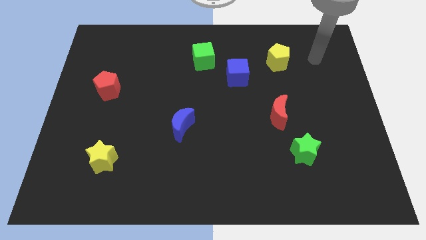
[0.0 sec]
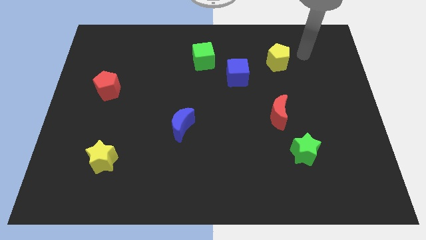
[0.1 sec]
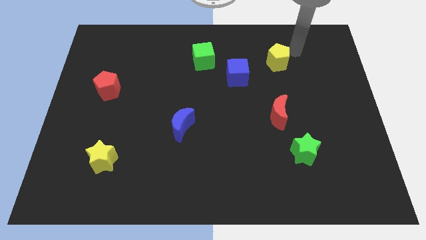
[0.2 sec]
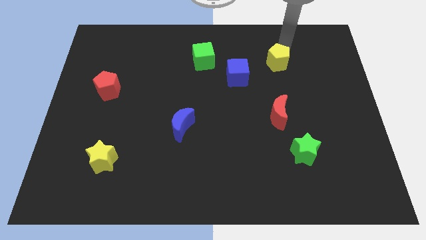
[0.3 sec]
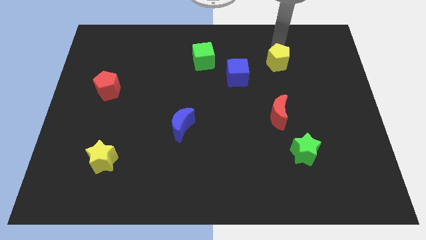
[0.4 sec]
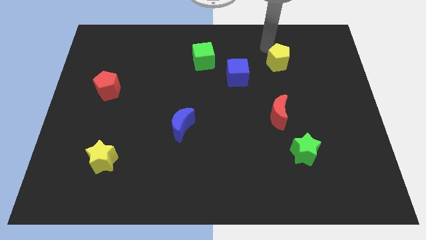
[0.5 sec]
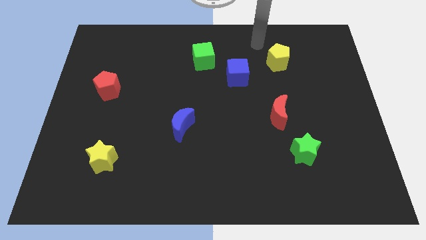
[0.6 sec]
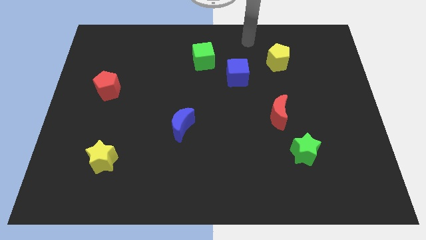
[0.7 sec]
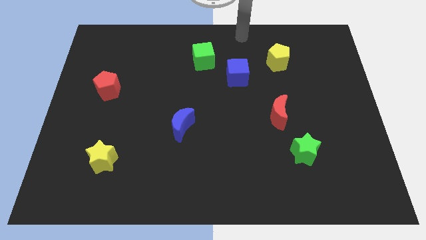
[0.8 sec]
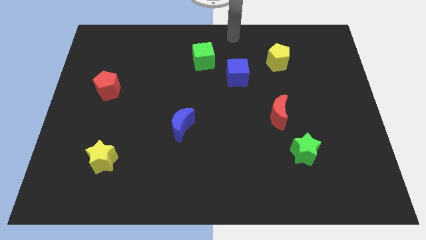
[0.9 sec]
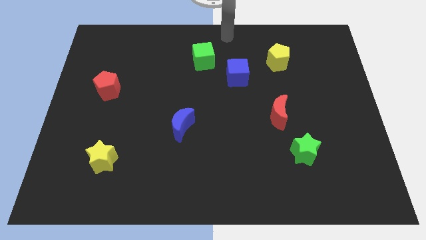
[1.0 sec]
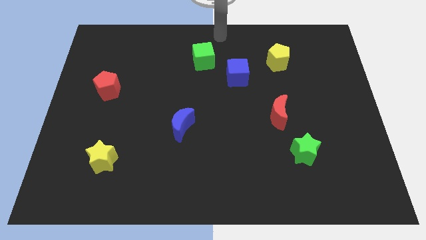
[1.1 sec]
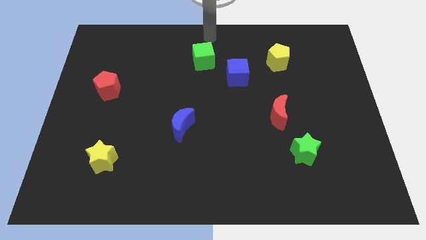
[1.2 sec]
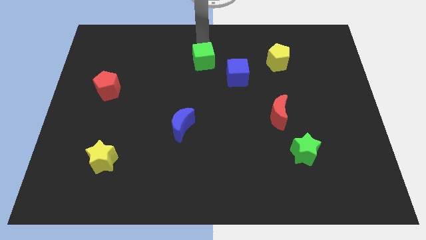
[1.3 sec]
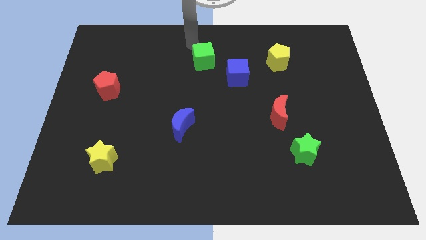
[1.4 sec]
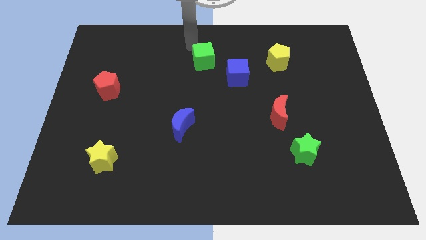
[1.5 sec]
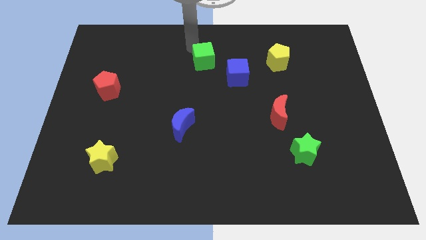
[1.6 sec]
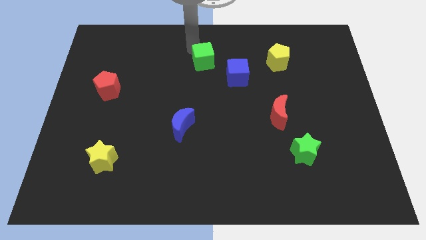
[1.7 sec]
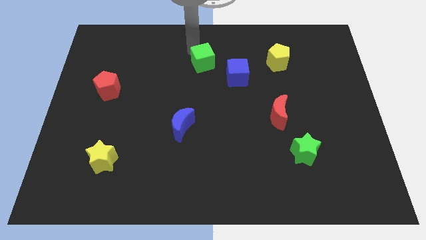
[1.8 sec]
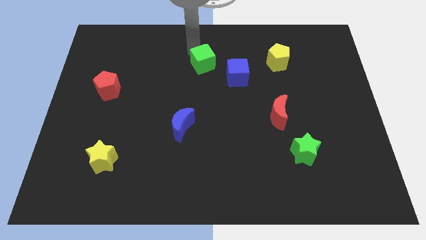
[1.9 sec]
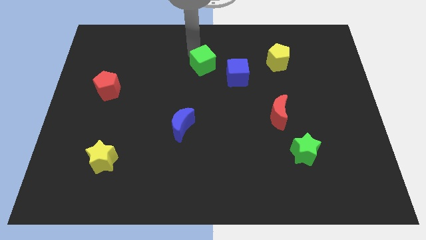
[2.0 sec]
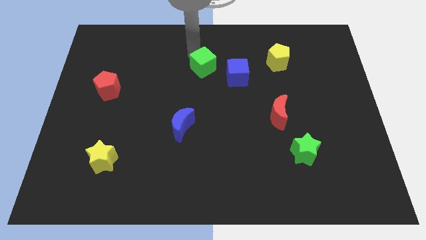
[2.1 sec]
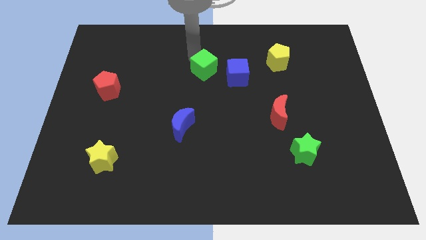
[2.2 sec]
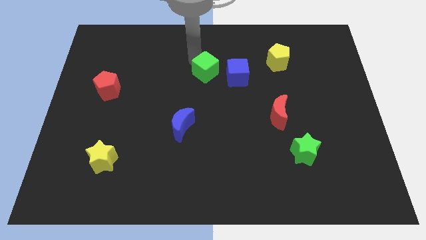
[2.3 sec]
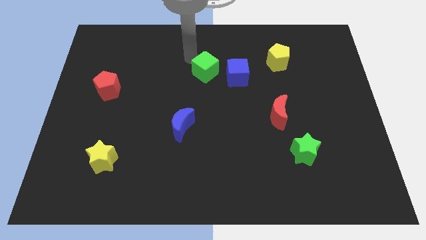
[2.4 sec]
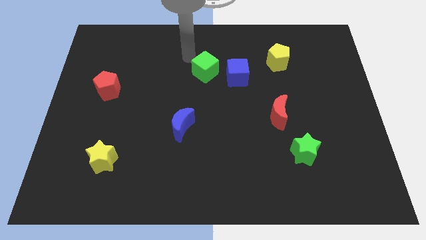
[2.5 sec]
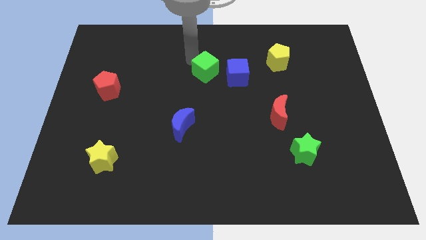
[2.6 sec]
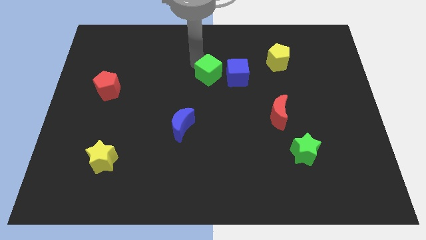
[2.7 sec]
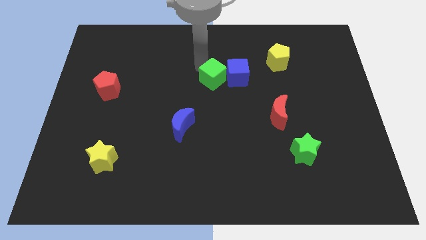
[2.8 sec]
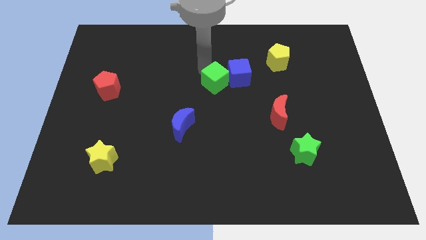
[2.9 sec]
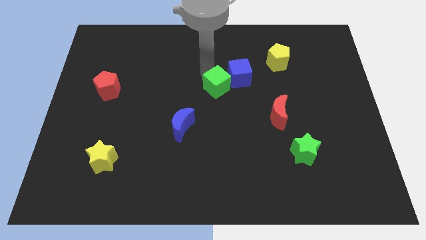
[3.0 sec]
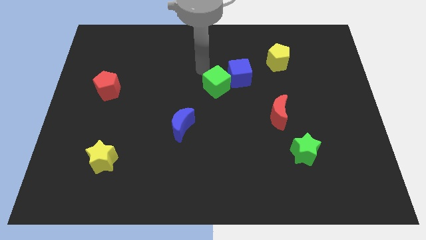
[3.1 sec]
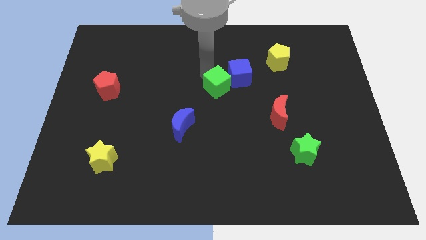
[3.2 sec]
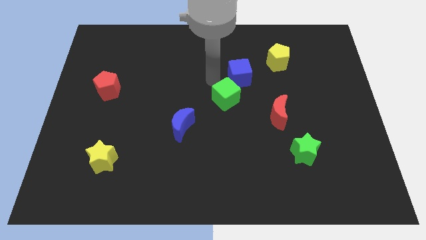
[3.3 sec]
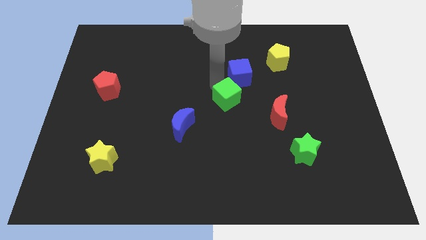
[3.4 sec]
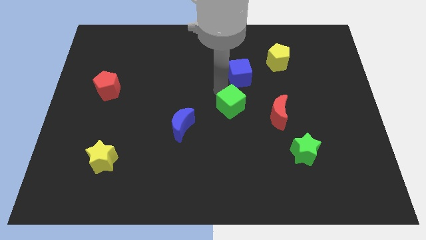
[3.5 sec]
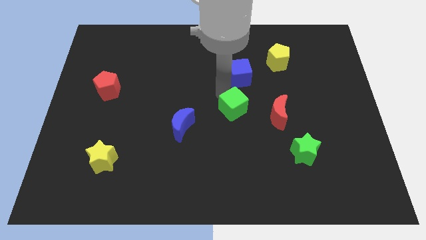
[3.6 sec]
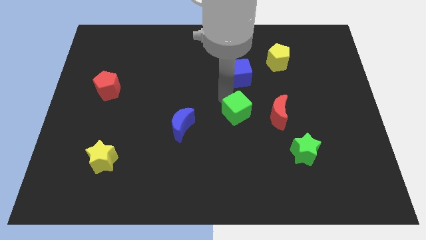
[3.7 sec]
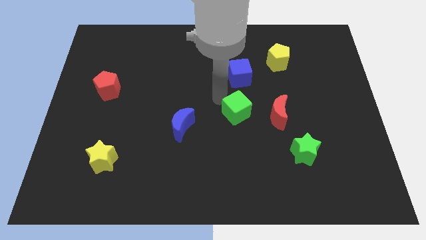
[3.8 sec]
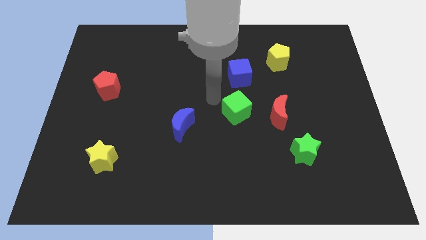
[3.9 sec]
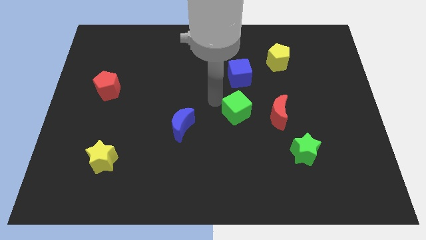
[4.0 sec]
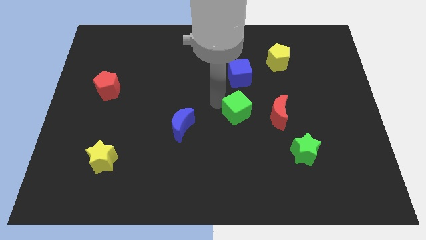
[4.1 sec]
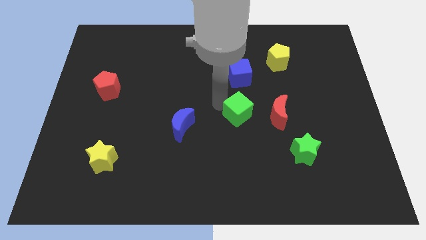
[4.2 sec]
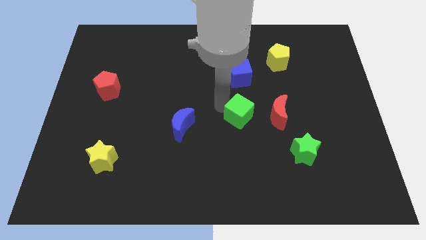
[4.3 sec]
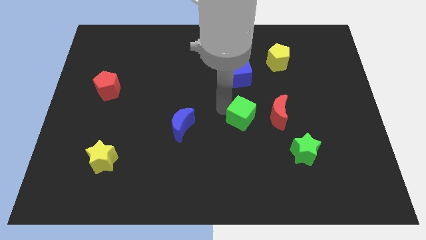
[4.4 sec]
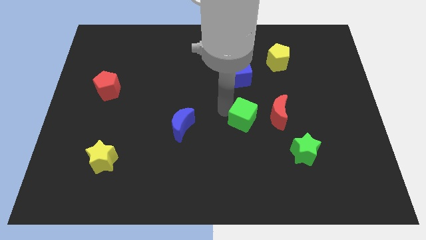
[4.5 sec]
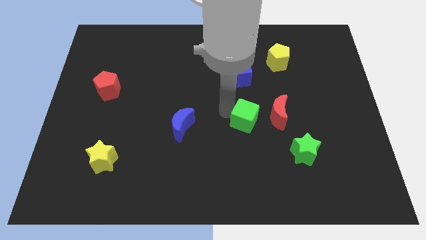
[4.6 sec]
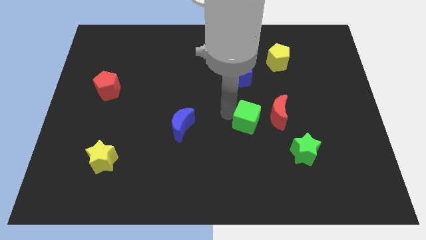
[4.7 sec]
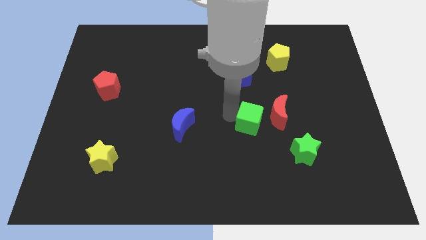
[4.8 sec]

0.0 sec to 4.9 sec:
move the green cube down and then right

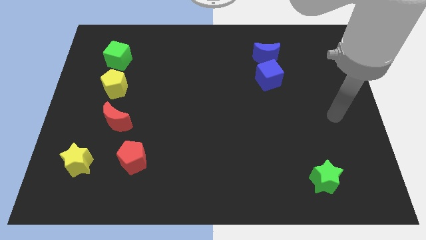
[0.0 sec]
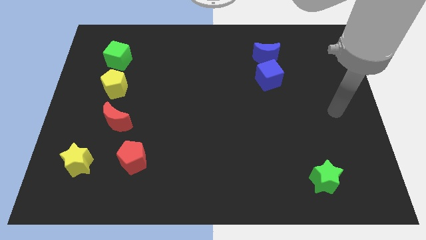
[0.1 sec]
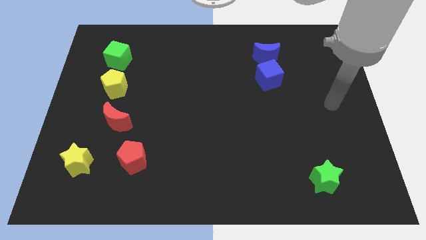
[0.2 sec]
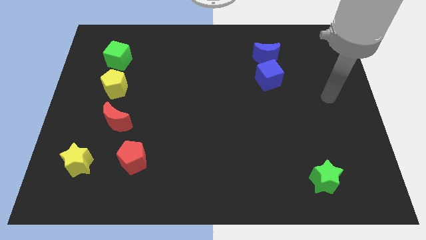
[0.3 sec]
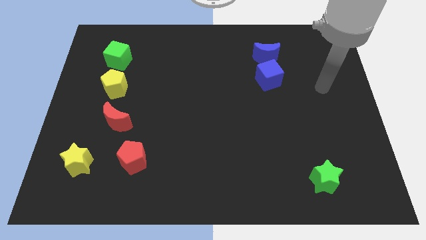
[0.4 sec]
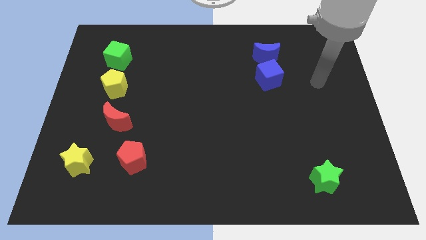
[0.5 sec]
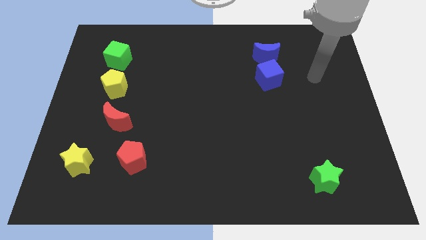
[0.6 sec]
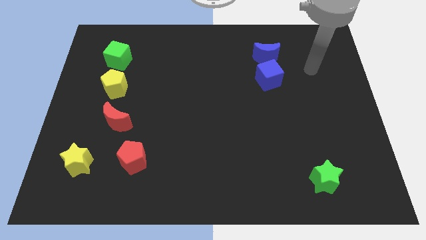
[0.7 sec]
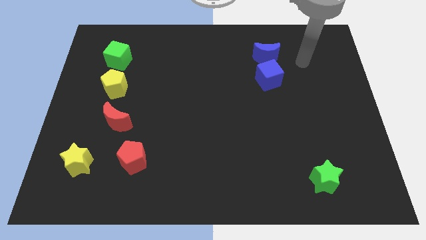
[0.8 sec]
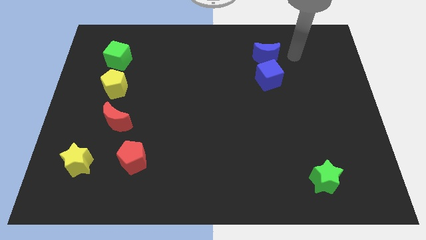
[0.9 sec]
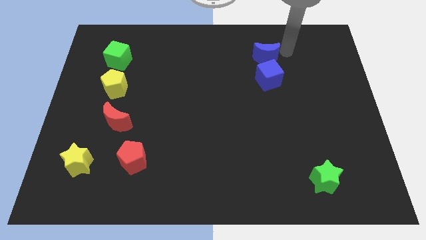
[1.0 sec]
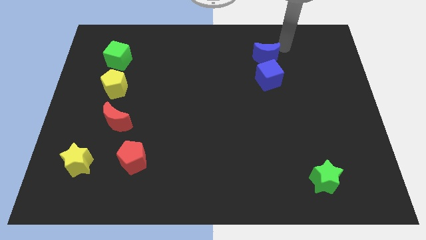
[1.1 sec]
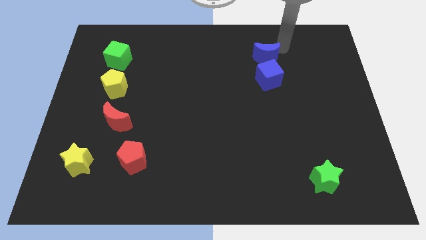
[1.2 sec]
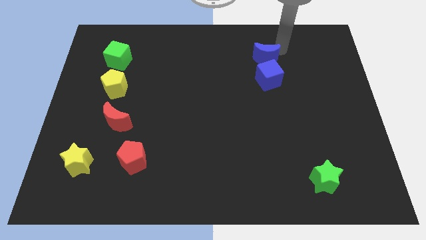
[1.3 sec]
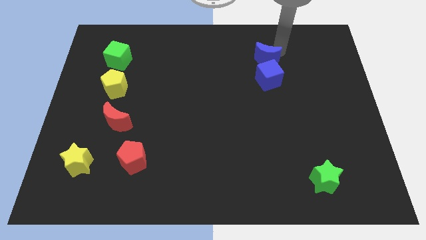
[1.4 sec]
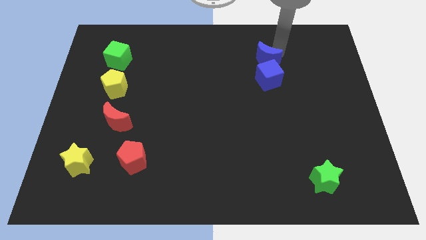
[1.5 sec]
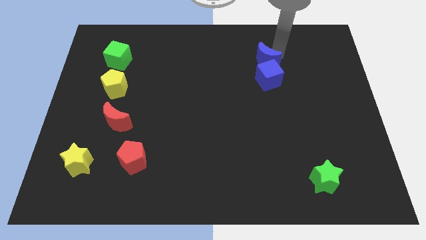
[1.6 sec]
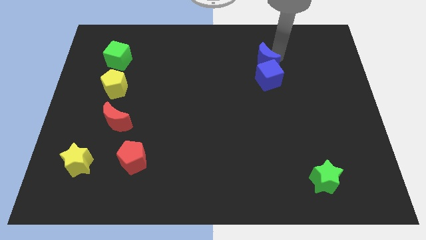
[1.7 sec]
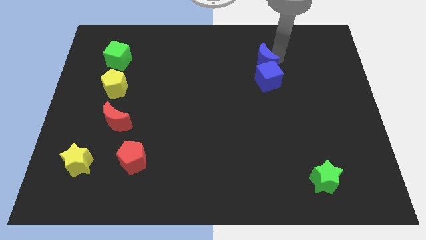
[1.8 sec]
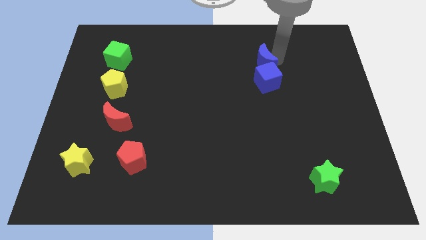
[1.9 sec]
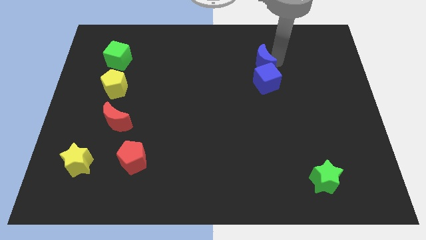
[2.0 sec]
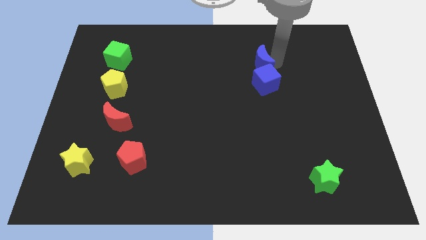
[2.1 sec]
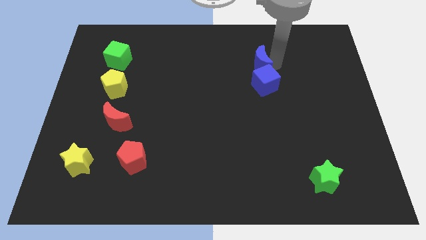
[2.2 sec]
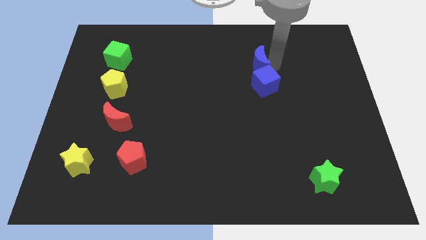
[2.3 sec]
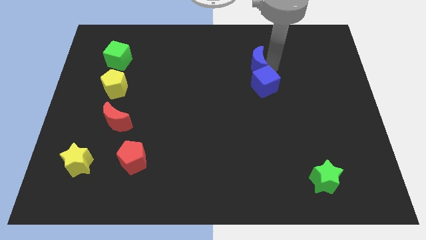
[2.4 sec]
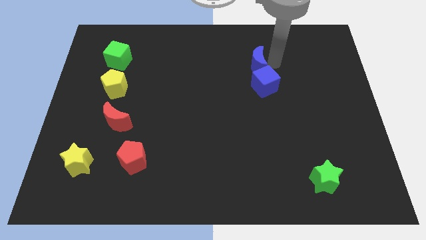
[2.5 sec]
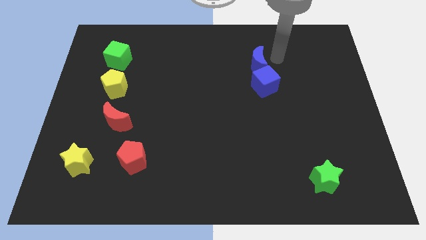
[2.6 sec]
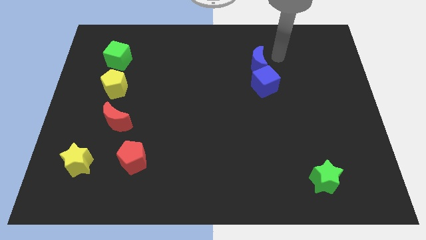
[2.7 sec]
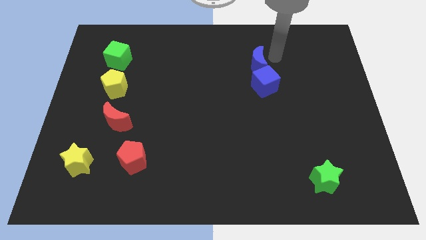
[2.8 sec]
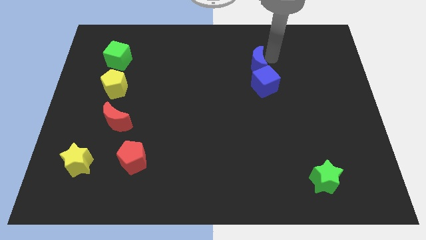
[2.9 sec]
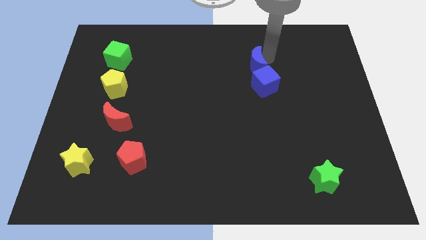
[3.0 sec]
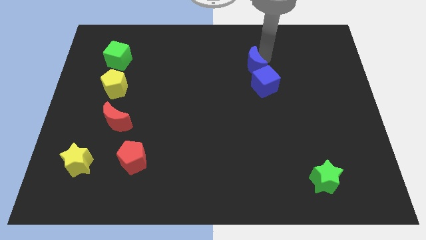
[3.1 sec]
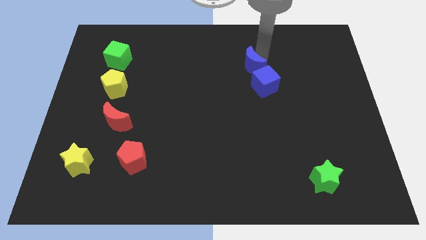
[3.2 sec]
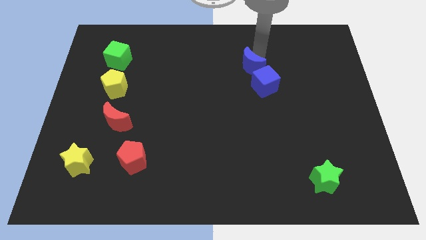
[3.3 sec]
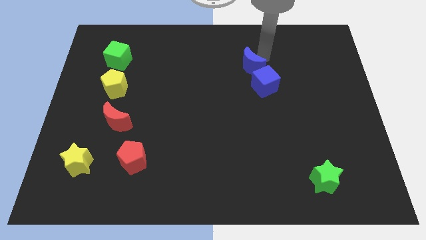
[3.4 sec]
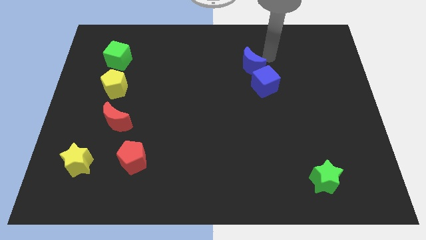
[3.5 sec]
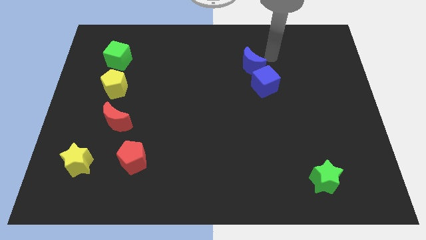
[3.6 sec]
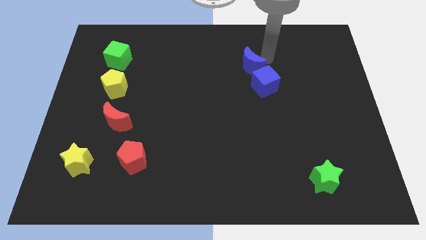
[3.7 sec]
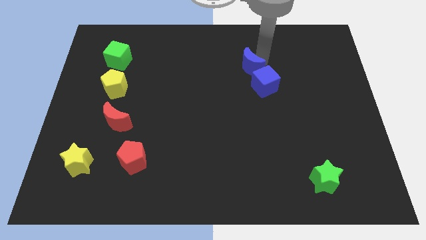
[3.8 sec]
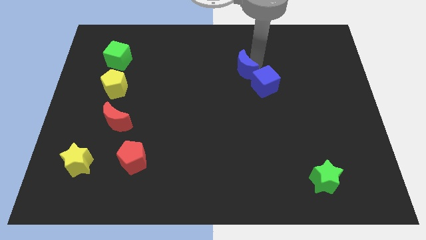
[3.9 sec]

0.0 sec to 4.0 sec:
slightly push the blue moon diagonally downwards and to the left
